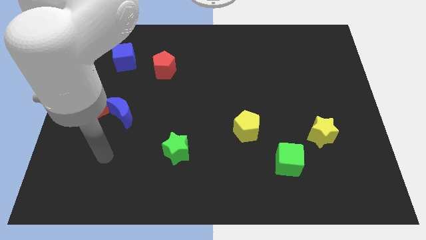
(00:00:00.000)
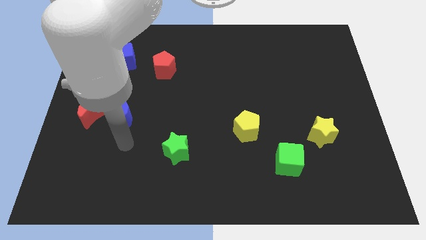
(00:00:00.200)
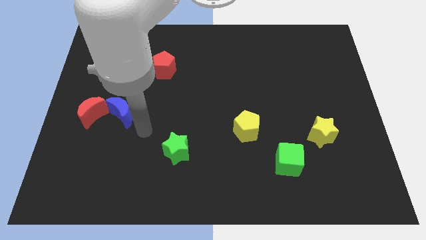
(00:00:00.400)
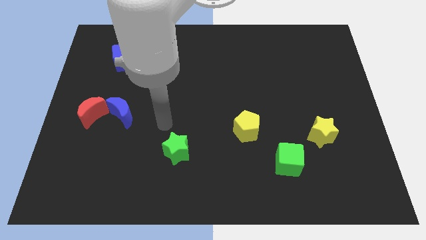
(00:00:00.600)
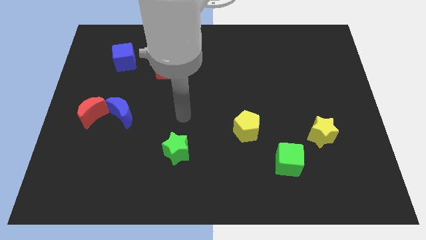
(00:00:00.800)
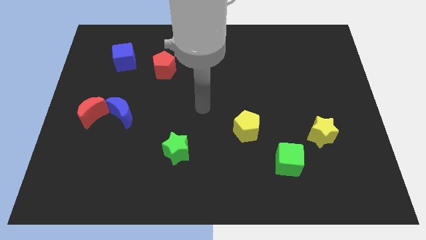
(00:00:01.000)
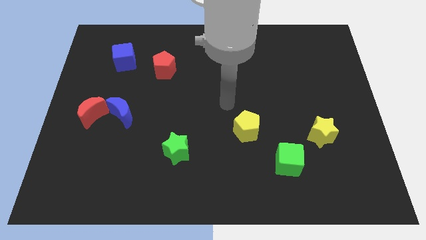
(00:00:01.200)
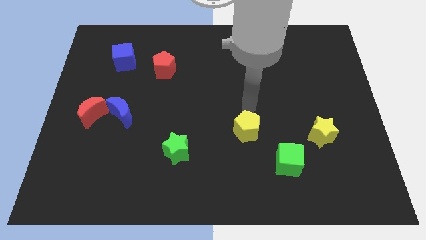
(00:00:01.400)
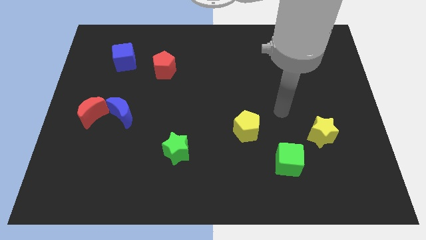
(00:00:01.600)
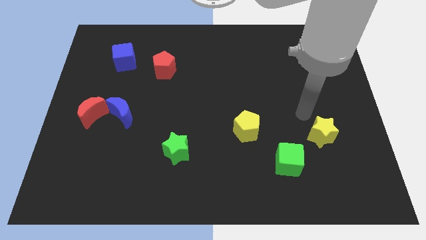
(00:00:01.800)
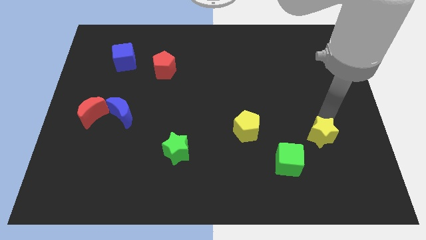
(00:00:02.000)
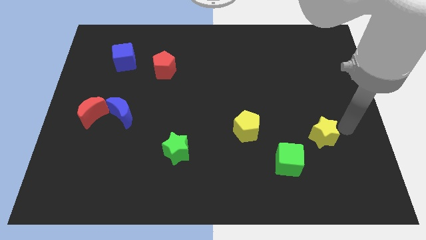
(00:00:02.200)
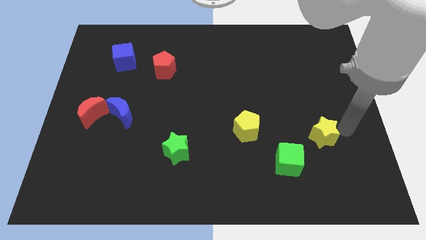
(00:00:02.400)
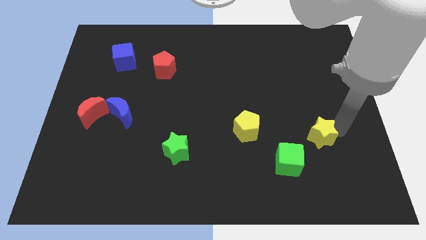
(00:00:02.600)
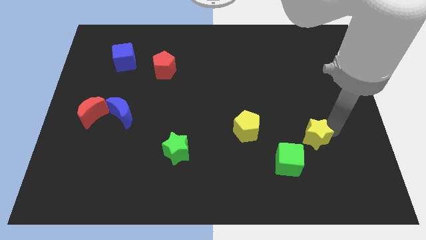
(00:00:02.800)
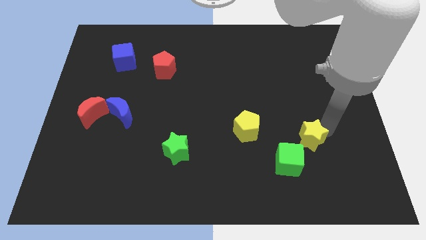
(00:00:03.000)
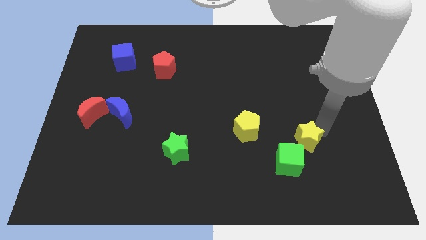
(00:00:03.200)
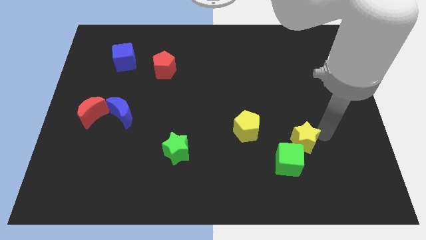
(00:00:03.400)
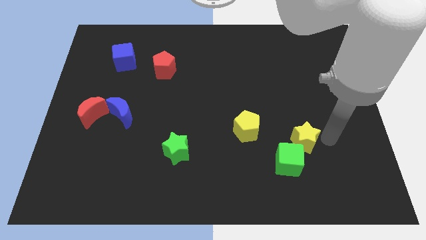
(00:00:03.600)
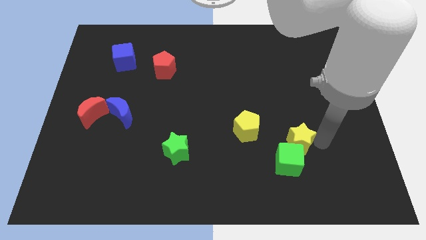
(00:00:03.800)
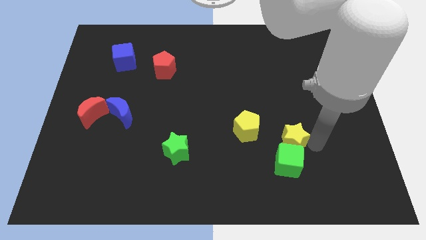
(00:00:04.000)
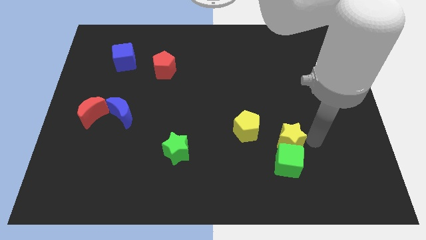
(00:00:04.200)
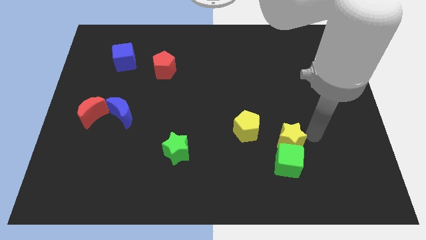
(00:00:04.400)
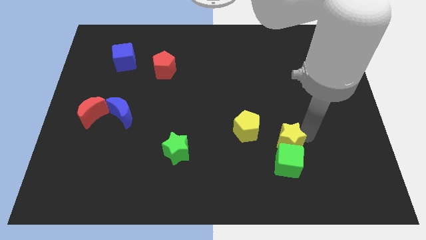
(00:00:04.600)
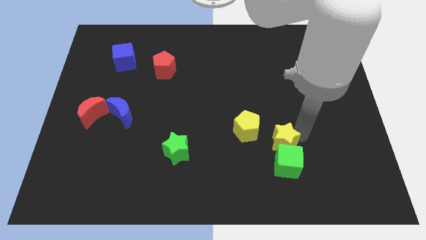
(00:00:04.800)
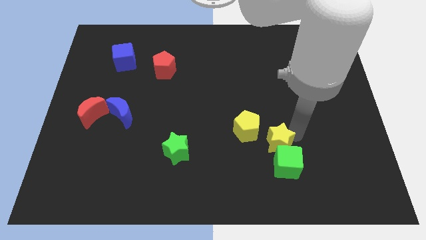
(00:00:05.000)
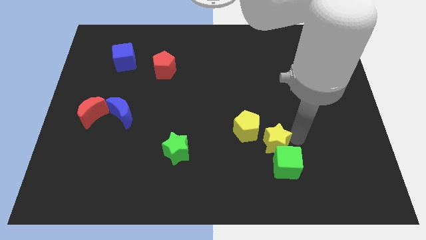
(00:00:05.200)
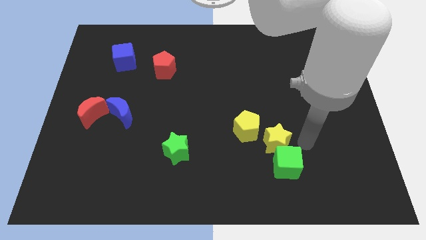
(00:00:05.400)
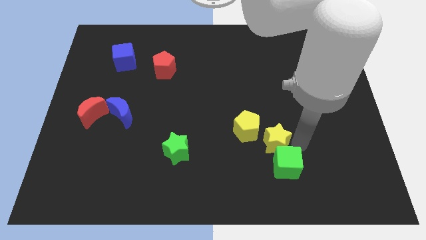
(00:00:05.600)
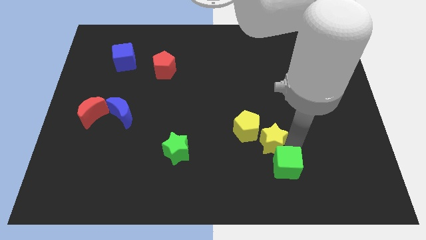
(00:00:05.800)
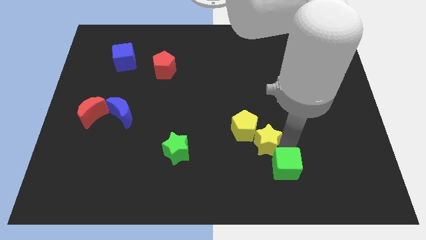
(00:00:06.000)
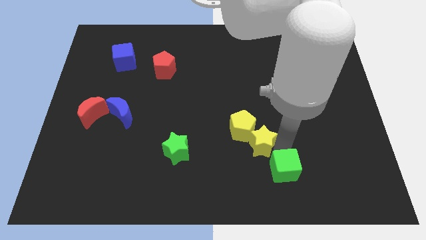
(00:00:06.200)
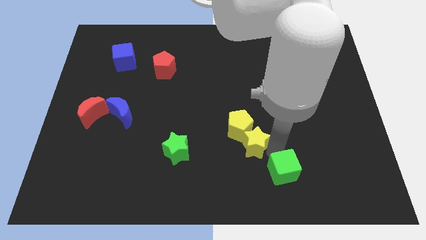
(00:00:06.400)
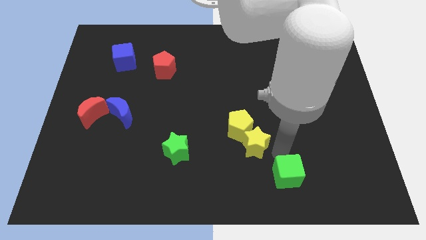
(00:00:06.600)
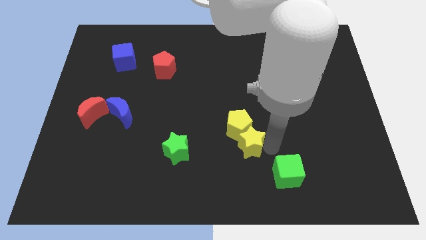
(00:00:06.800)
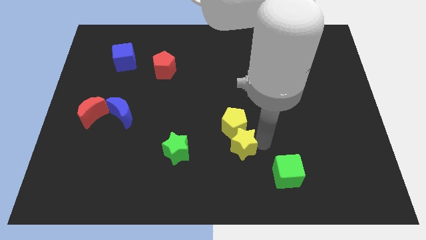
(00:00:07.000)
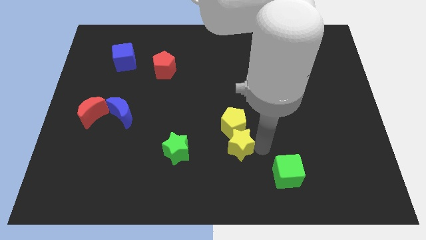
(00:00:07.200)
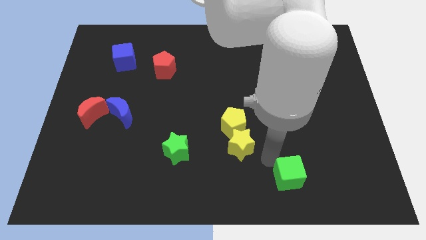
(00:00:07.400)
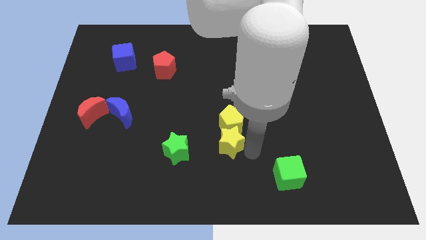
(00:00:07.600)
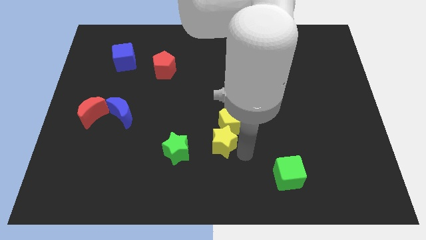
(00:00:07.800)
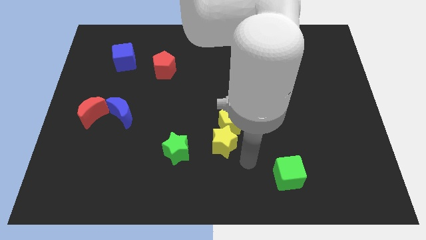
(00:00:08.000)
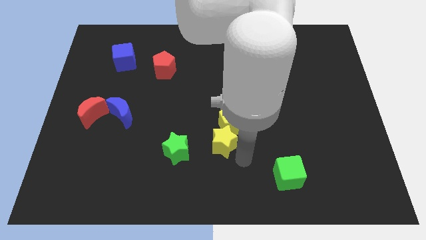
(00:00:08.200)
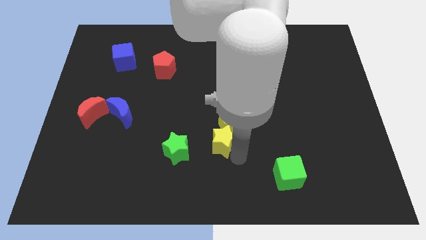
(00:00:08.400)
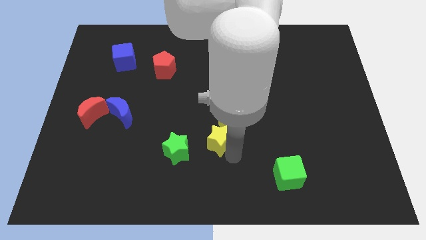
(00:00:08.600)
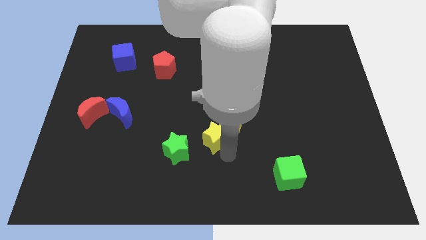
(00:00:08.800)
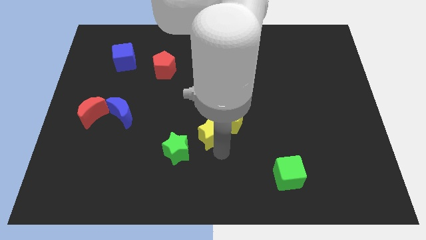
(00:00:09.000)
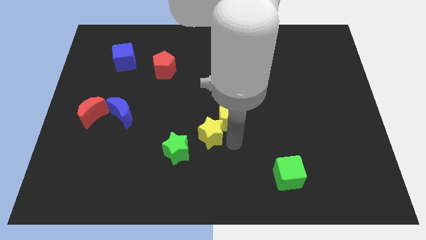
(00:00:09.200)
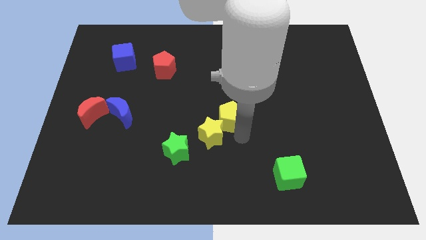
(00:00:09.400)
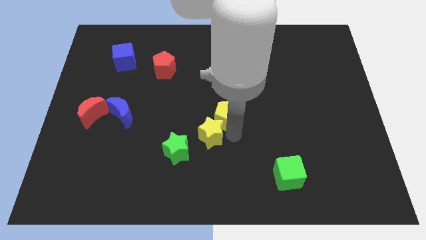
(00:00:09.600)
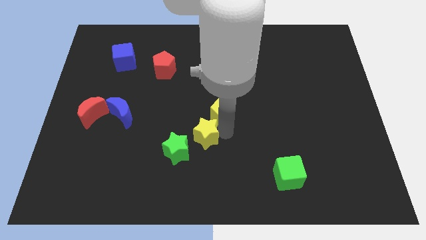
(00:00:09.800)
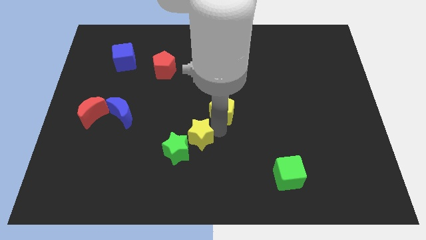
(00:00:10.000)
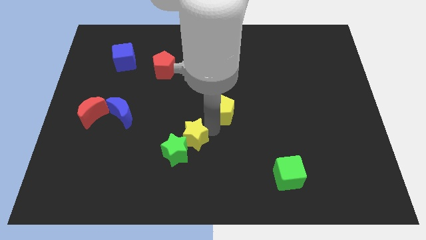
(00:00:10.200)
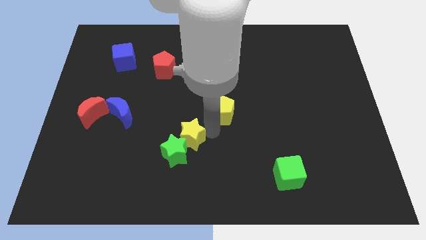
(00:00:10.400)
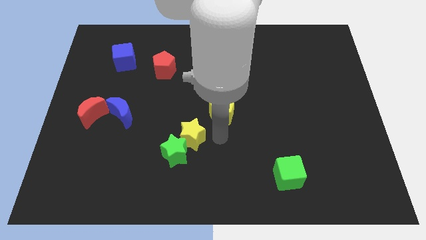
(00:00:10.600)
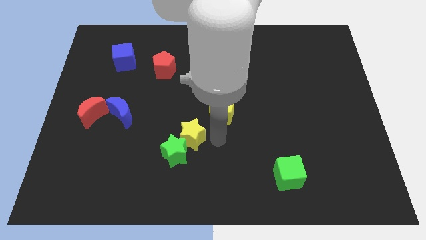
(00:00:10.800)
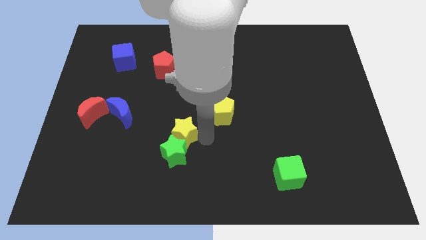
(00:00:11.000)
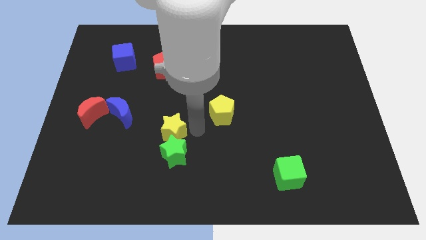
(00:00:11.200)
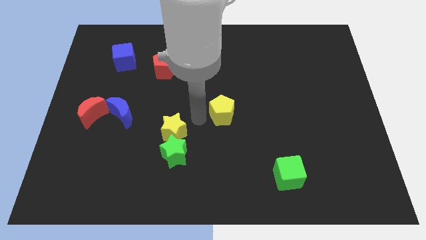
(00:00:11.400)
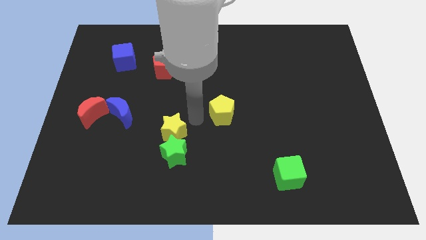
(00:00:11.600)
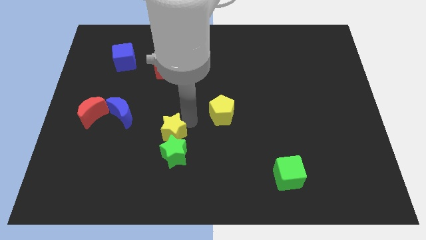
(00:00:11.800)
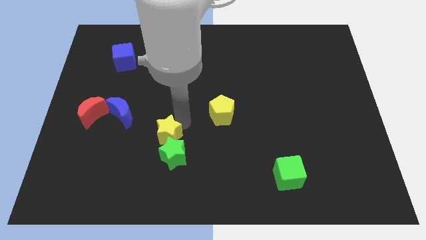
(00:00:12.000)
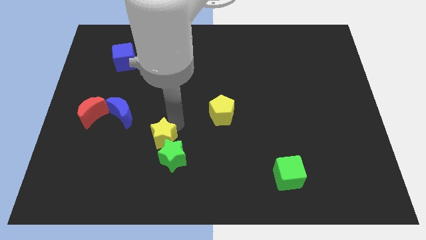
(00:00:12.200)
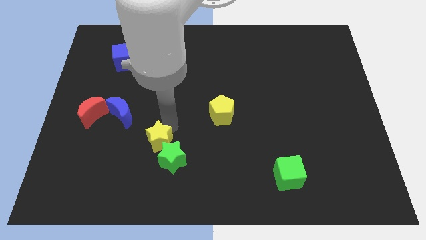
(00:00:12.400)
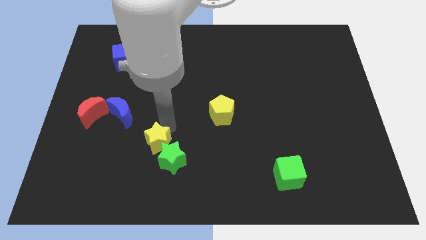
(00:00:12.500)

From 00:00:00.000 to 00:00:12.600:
slide the yellow star to the left of the green star

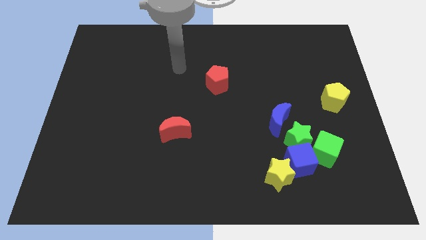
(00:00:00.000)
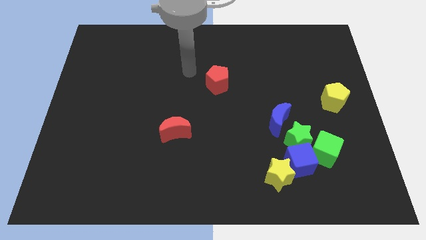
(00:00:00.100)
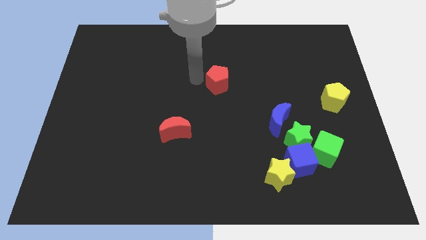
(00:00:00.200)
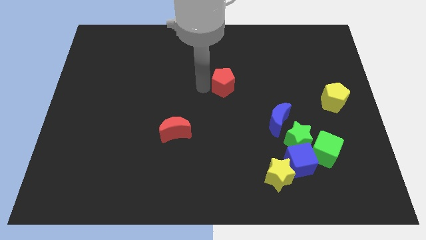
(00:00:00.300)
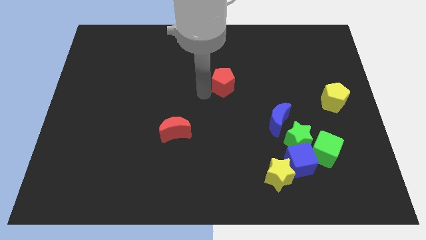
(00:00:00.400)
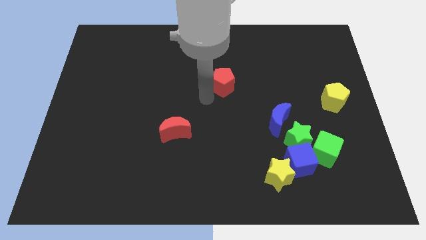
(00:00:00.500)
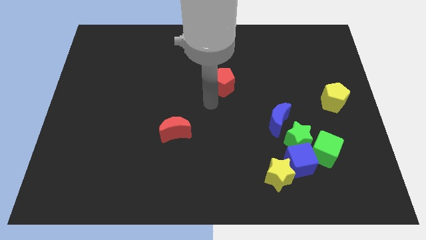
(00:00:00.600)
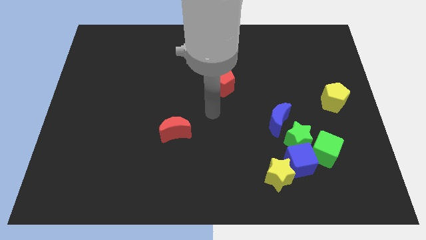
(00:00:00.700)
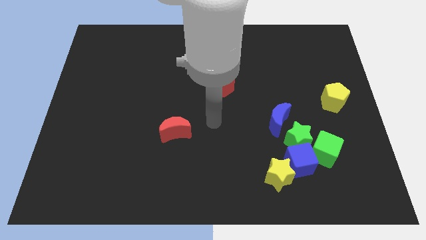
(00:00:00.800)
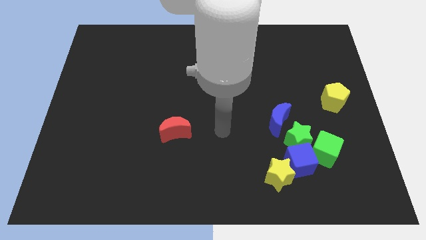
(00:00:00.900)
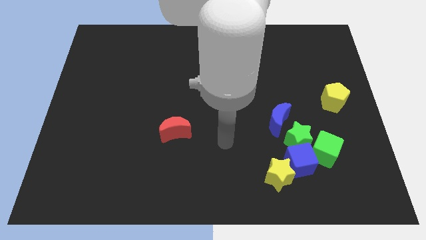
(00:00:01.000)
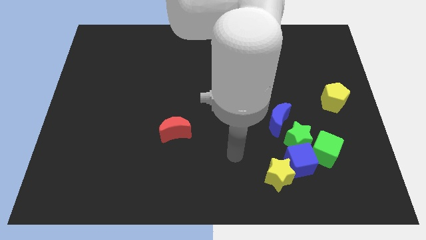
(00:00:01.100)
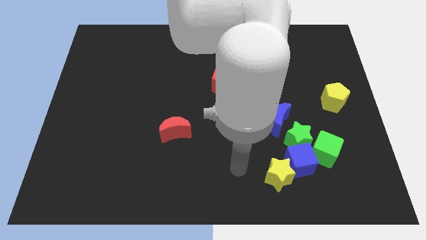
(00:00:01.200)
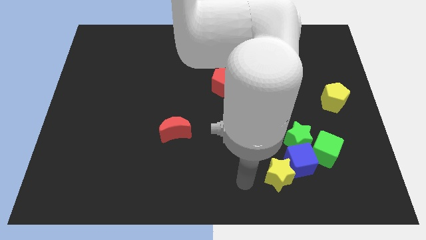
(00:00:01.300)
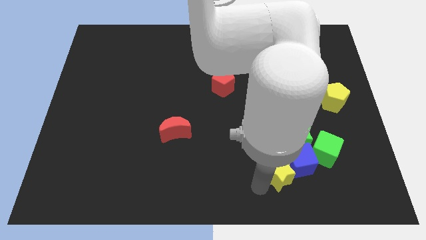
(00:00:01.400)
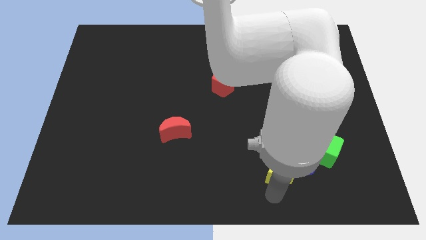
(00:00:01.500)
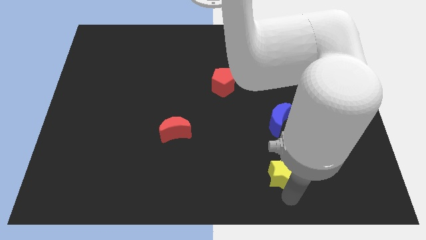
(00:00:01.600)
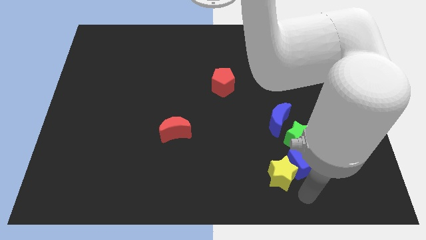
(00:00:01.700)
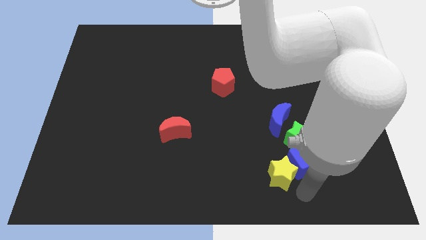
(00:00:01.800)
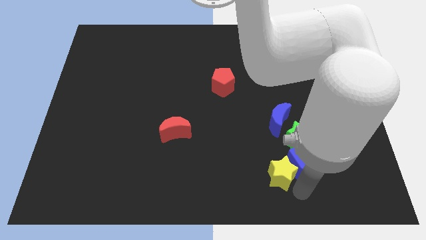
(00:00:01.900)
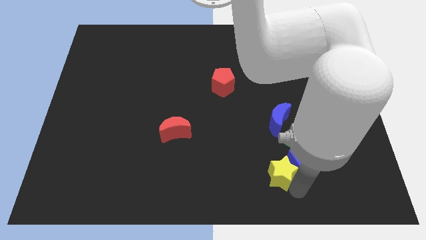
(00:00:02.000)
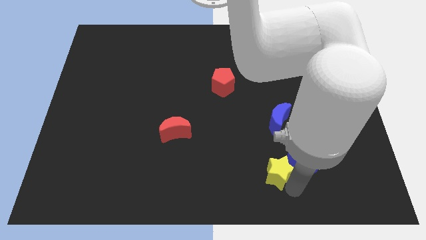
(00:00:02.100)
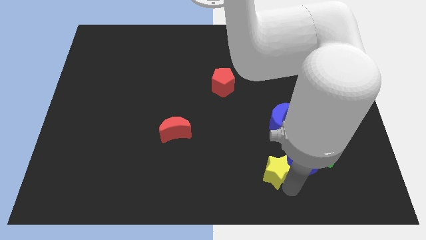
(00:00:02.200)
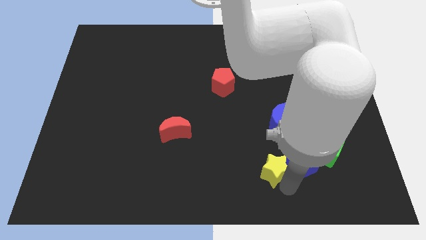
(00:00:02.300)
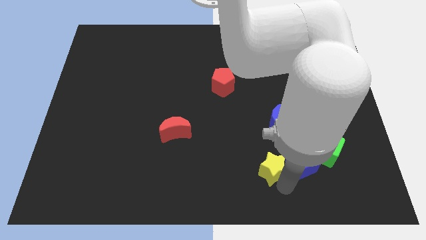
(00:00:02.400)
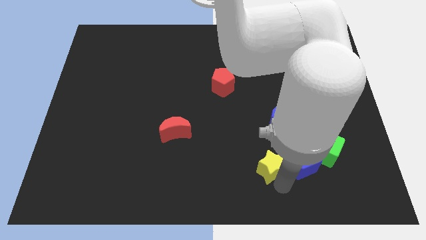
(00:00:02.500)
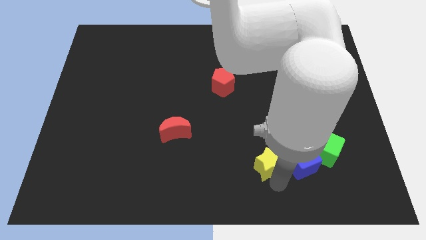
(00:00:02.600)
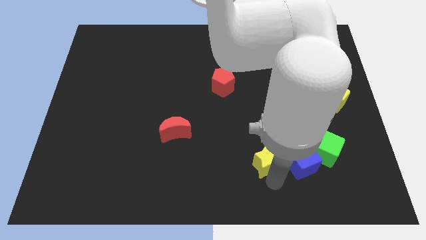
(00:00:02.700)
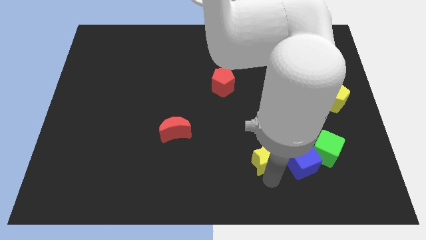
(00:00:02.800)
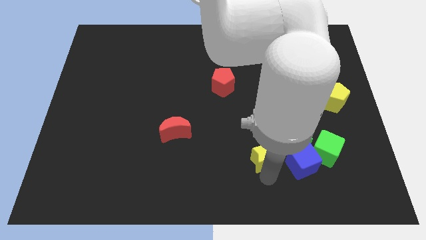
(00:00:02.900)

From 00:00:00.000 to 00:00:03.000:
slide the yellow star left of the green star
